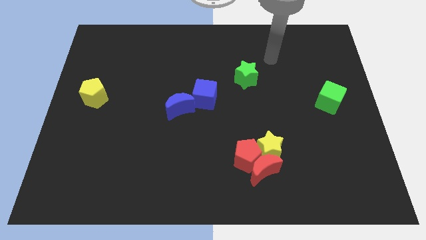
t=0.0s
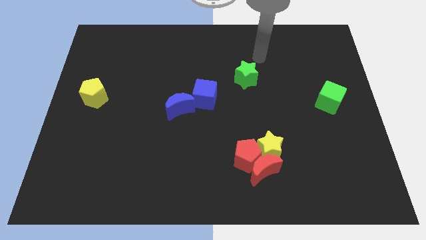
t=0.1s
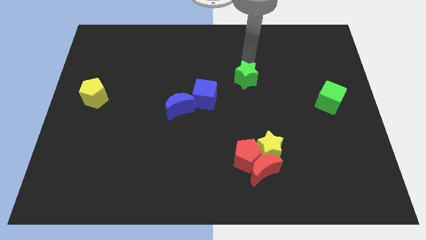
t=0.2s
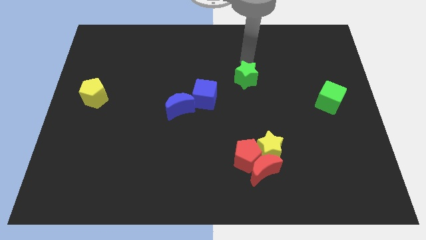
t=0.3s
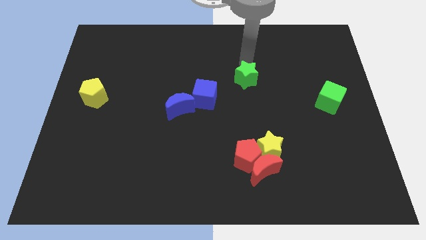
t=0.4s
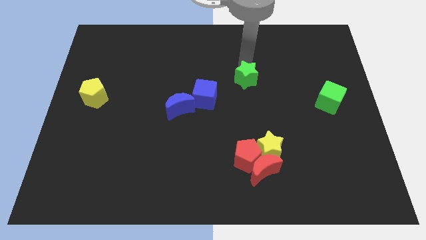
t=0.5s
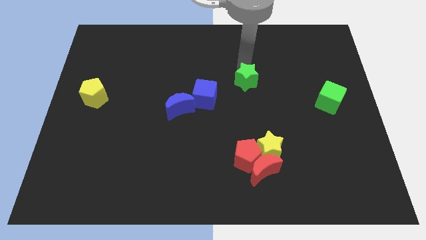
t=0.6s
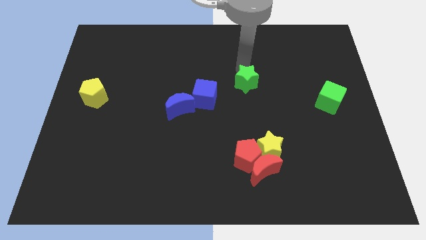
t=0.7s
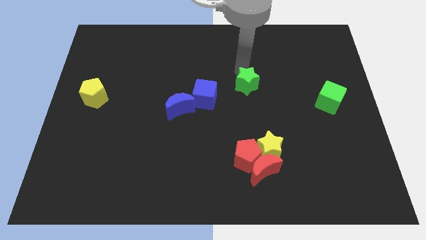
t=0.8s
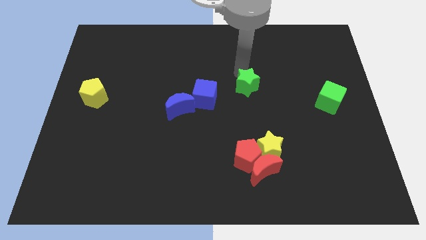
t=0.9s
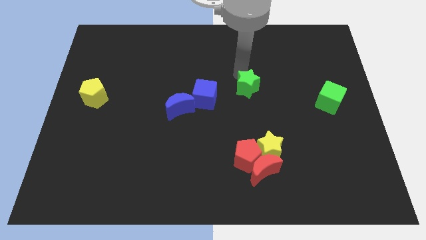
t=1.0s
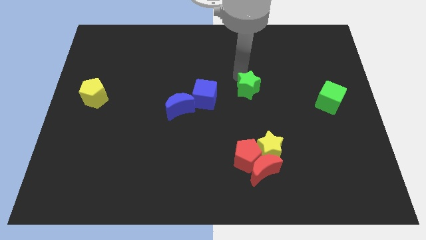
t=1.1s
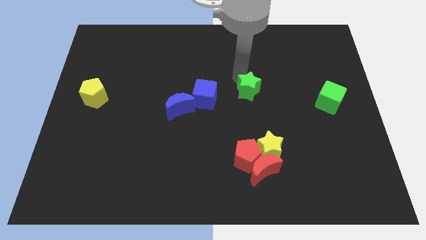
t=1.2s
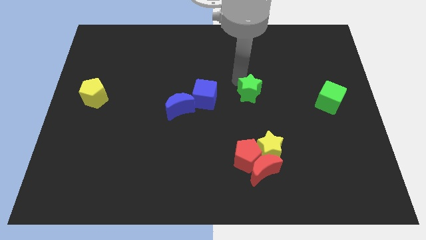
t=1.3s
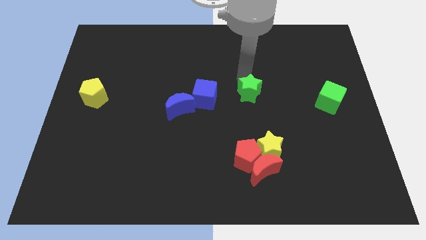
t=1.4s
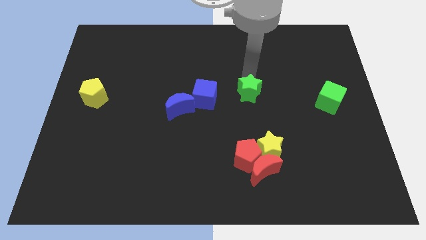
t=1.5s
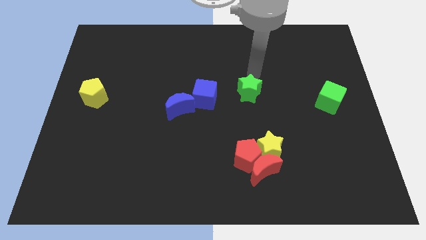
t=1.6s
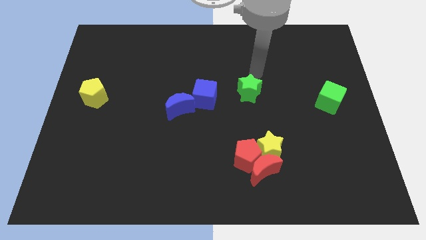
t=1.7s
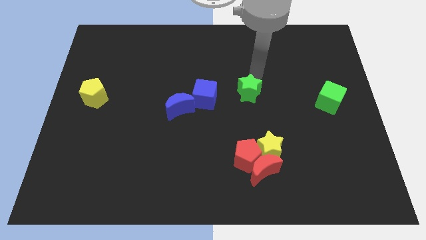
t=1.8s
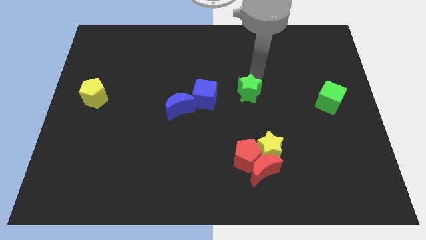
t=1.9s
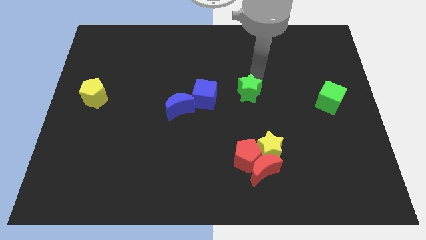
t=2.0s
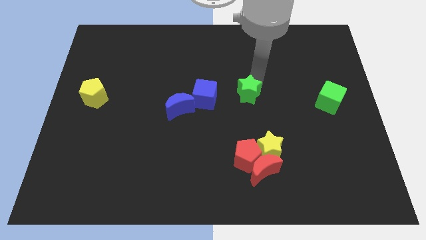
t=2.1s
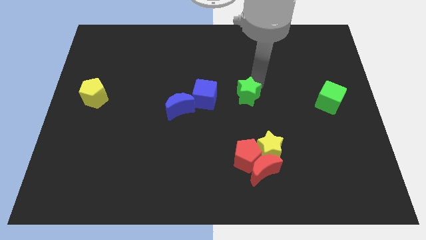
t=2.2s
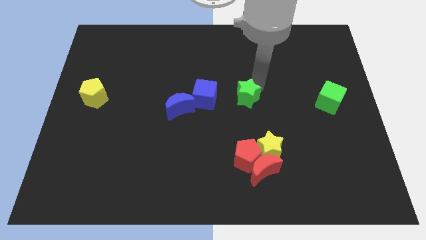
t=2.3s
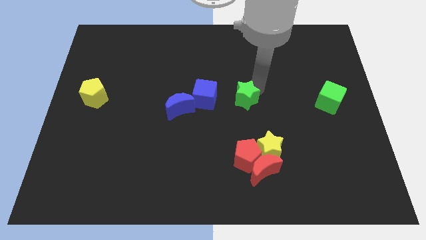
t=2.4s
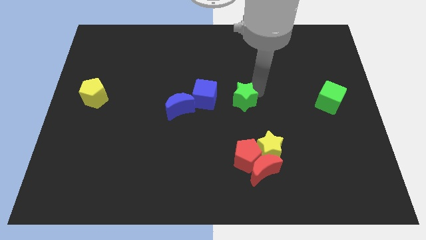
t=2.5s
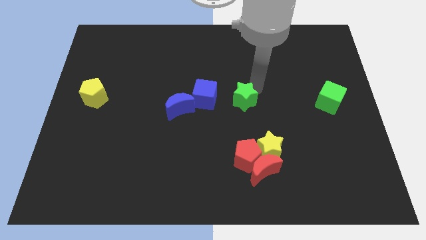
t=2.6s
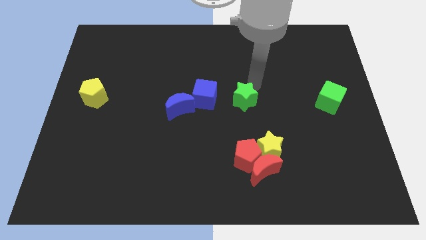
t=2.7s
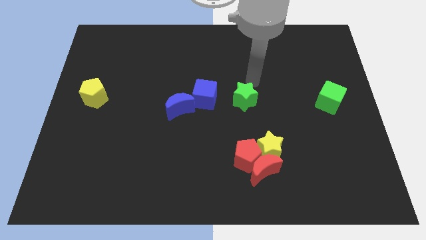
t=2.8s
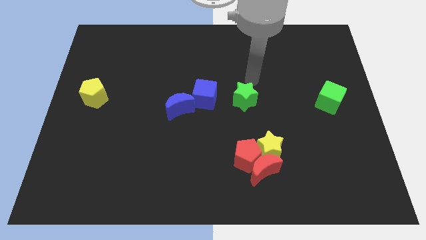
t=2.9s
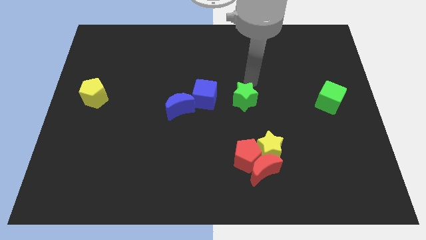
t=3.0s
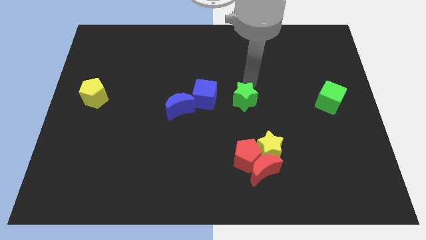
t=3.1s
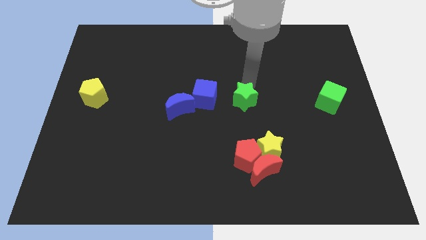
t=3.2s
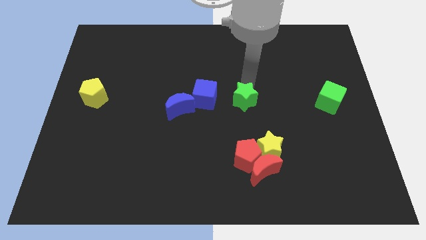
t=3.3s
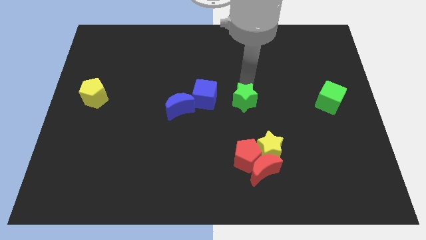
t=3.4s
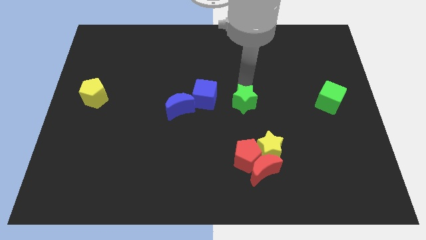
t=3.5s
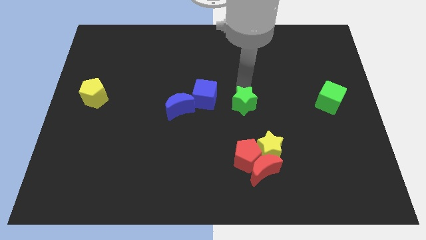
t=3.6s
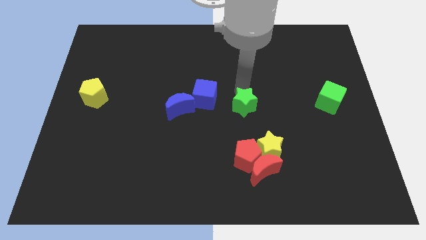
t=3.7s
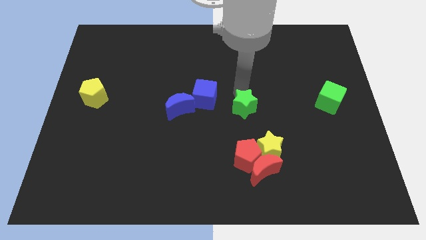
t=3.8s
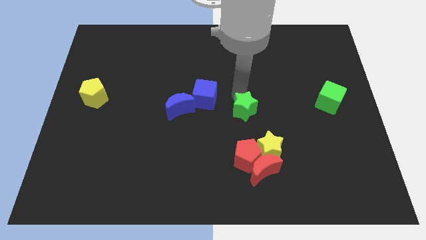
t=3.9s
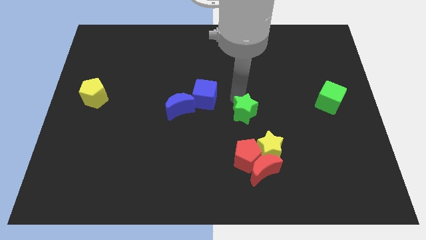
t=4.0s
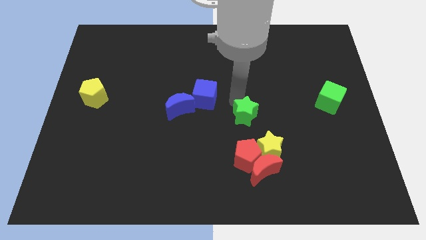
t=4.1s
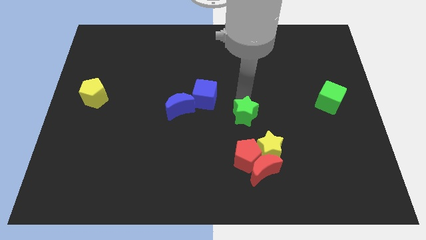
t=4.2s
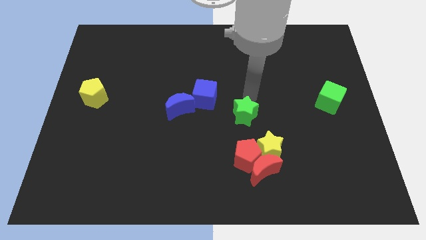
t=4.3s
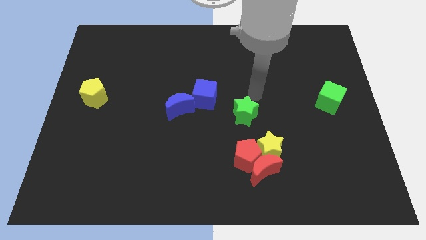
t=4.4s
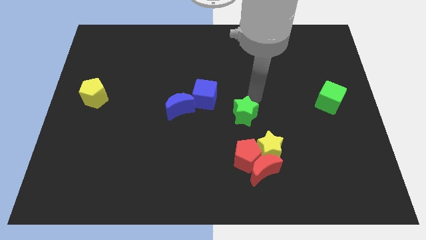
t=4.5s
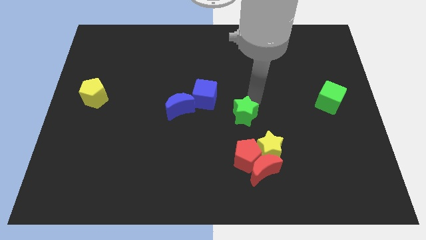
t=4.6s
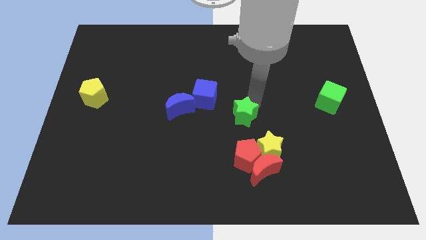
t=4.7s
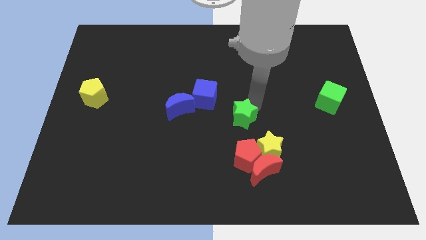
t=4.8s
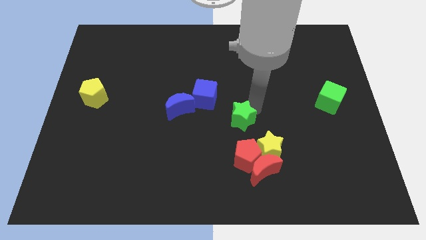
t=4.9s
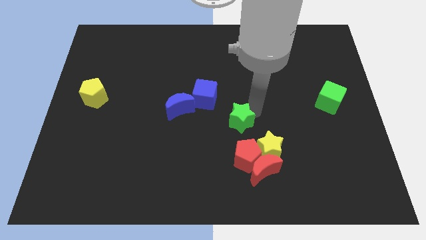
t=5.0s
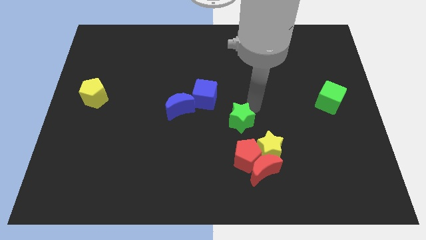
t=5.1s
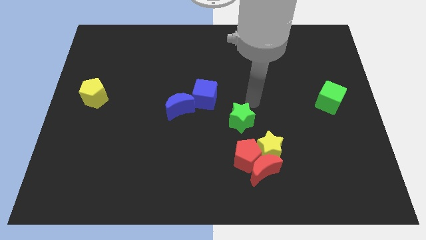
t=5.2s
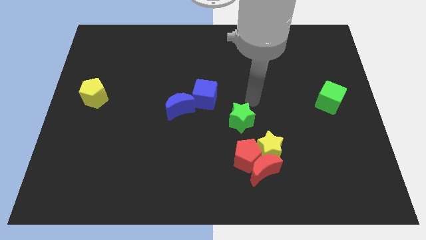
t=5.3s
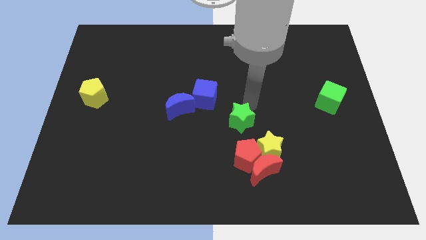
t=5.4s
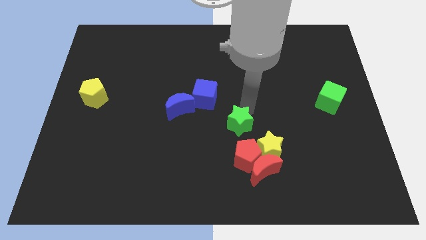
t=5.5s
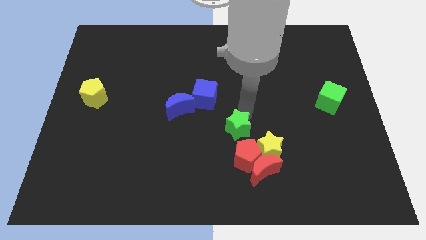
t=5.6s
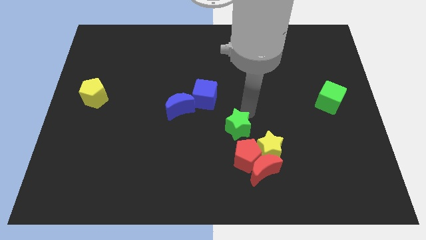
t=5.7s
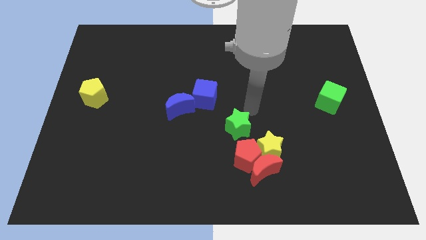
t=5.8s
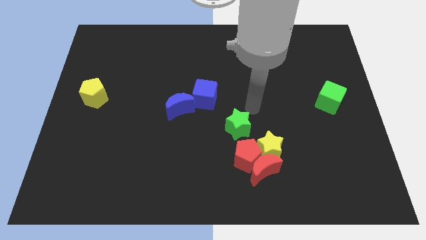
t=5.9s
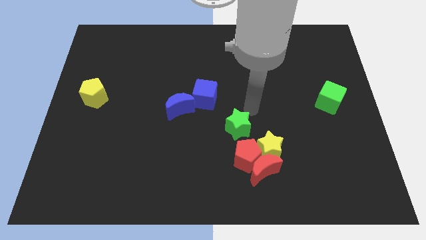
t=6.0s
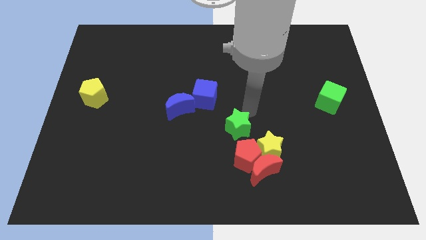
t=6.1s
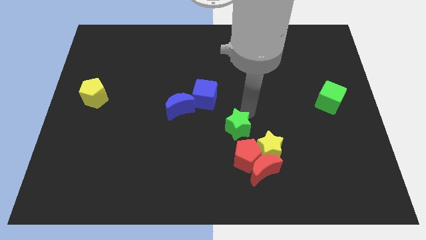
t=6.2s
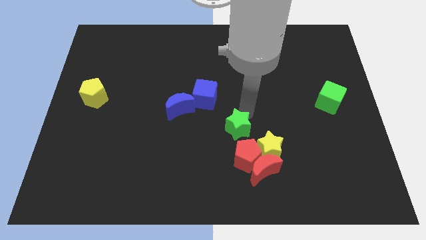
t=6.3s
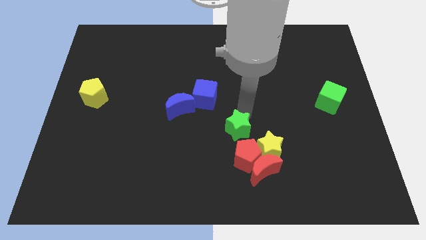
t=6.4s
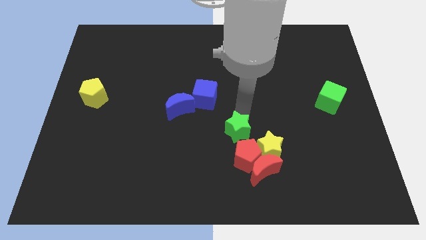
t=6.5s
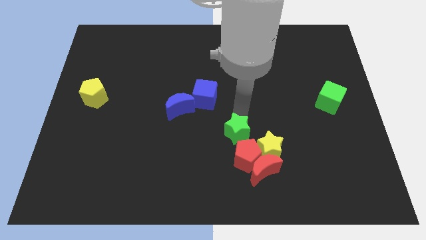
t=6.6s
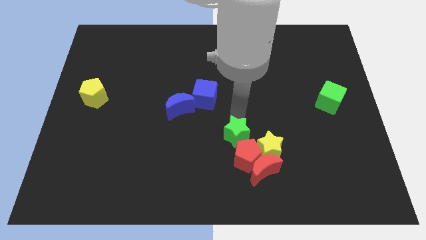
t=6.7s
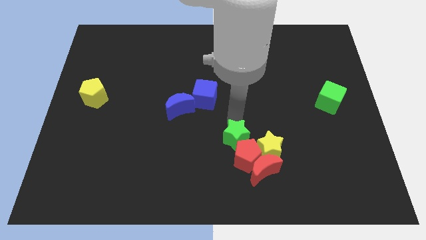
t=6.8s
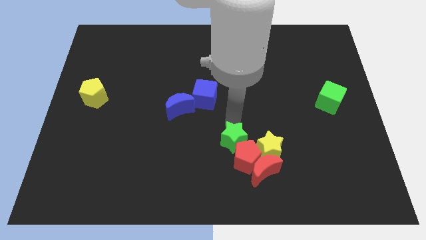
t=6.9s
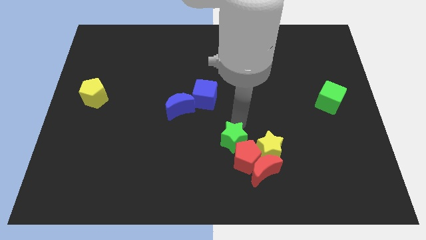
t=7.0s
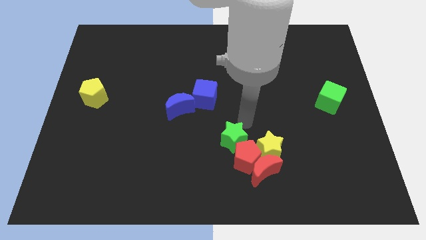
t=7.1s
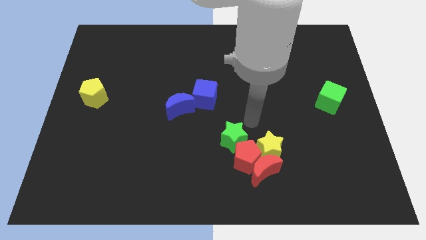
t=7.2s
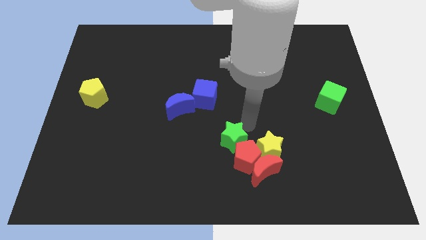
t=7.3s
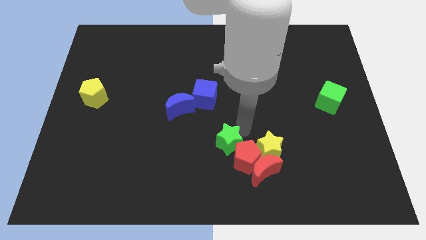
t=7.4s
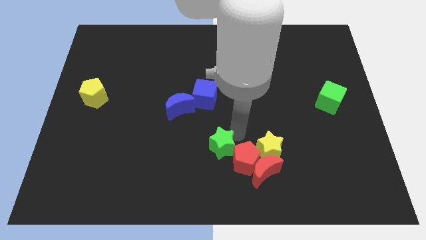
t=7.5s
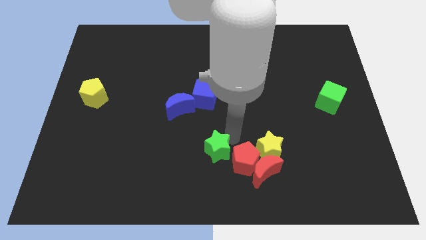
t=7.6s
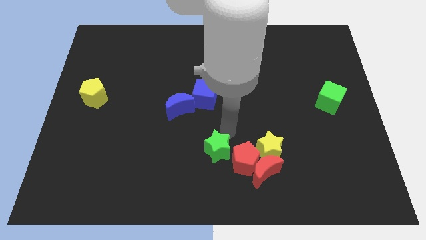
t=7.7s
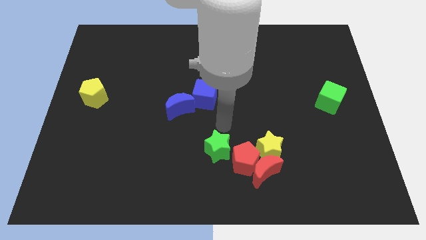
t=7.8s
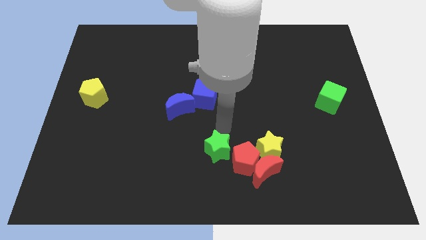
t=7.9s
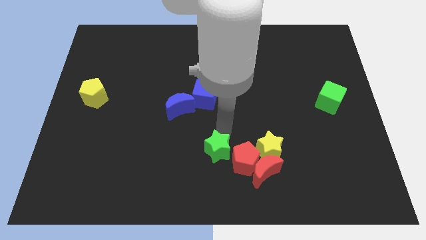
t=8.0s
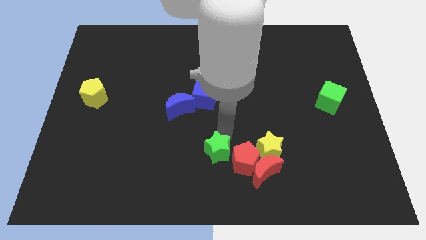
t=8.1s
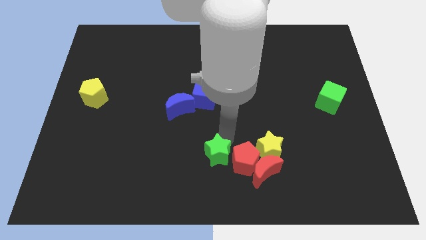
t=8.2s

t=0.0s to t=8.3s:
put the green star to the bottom
